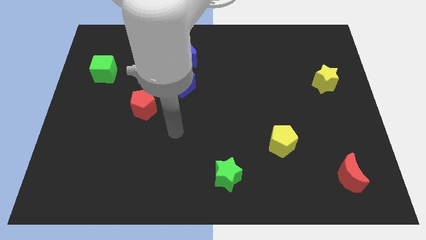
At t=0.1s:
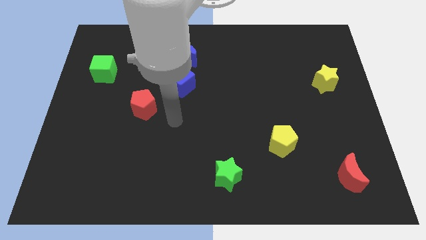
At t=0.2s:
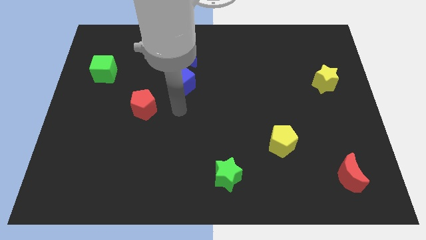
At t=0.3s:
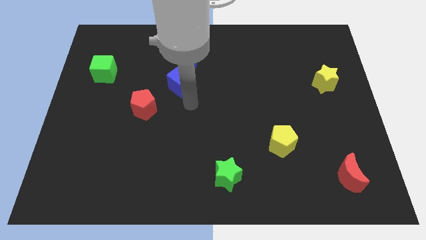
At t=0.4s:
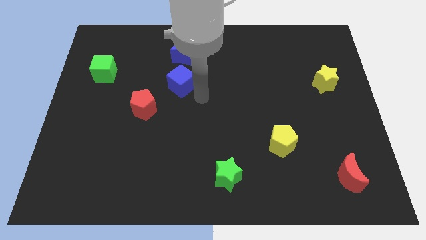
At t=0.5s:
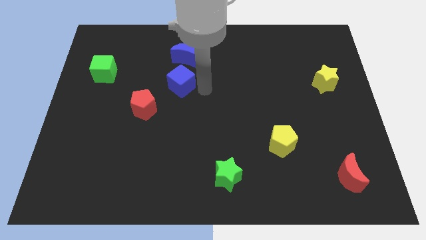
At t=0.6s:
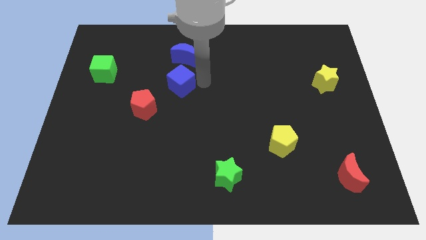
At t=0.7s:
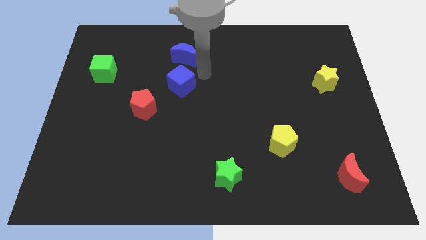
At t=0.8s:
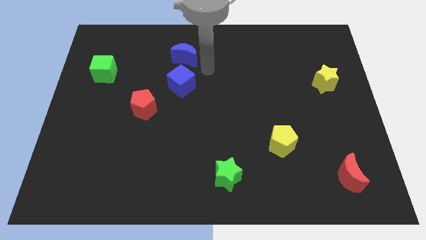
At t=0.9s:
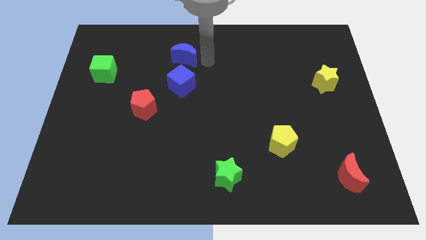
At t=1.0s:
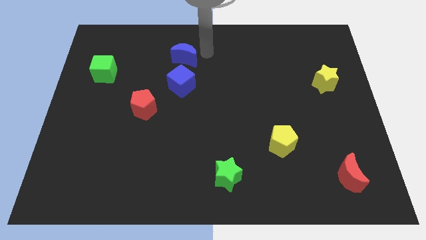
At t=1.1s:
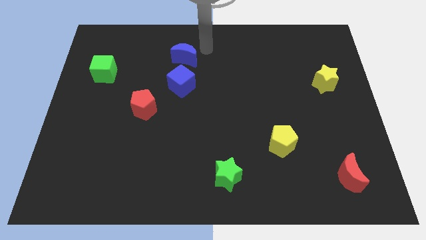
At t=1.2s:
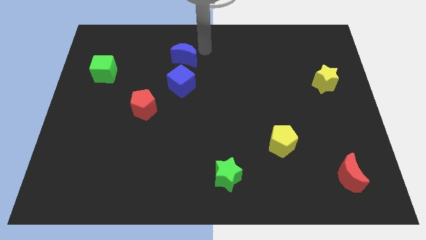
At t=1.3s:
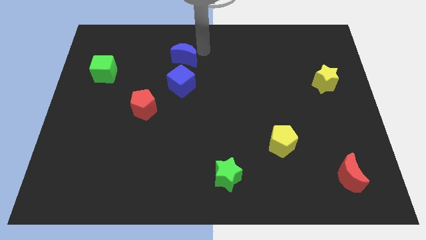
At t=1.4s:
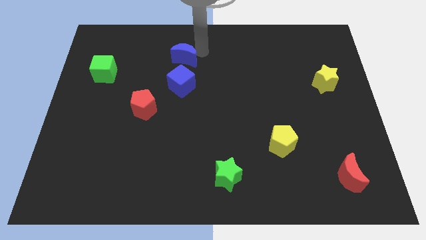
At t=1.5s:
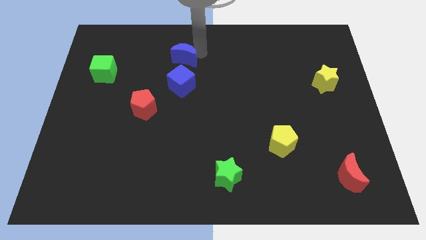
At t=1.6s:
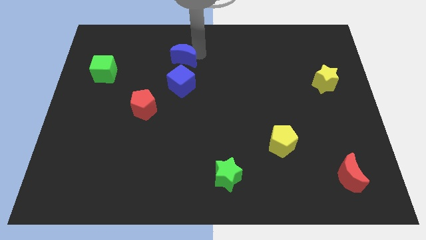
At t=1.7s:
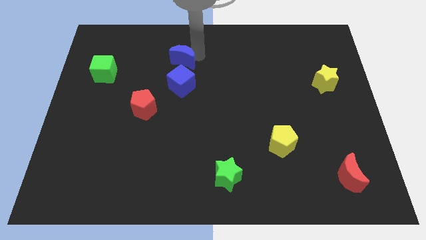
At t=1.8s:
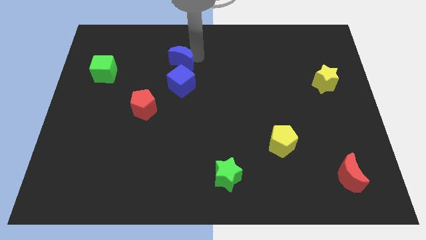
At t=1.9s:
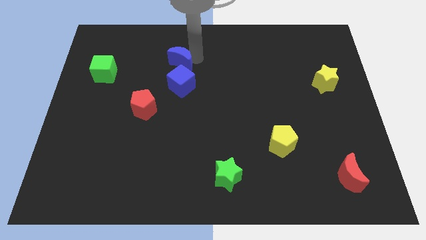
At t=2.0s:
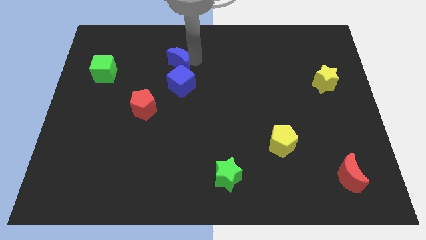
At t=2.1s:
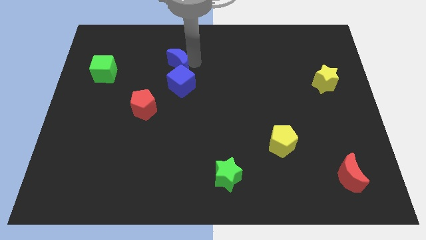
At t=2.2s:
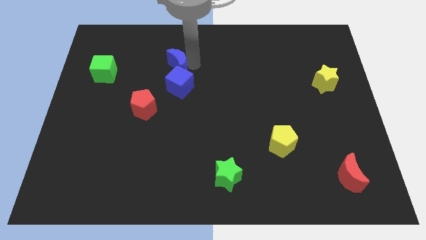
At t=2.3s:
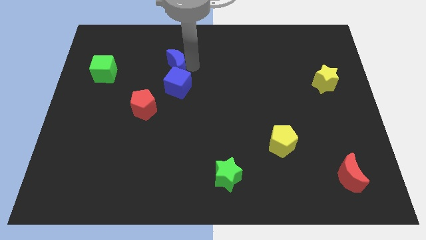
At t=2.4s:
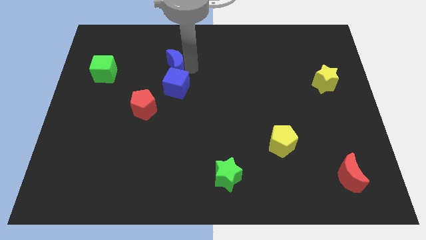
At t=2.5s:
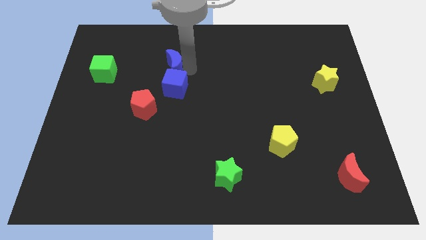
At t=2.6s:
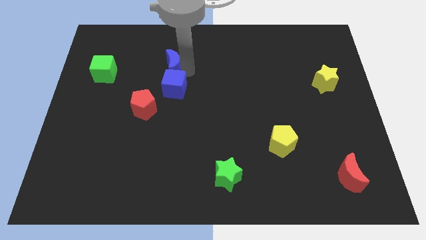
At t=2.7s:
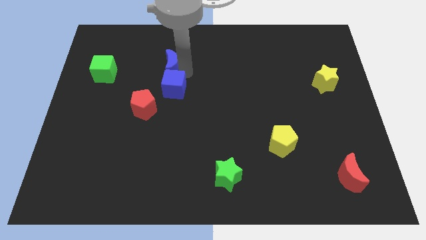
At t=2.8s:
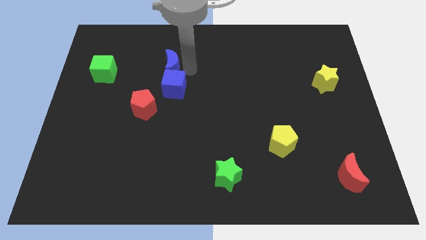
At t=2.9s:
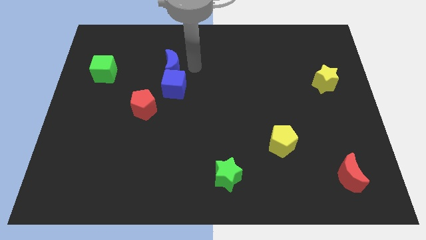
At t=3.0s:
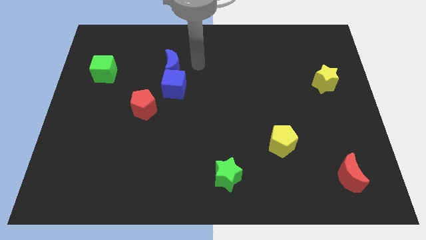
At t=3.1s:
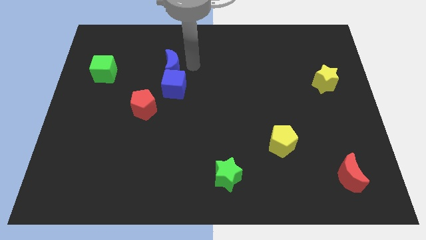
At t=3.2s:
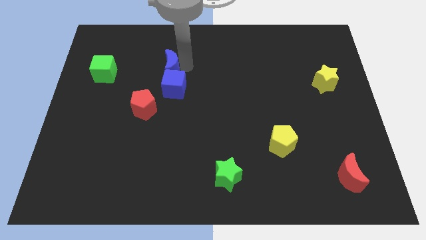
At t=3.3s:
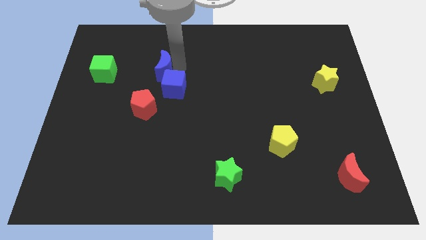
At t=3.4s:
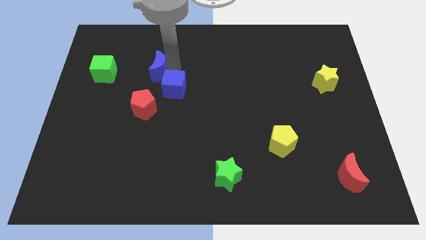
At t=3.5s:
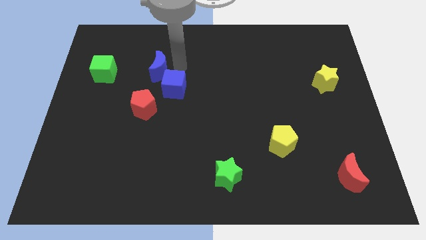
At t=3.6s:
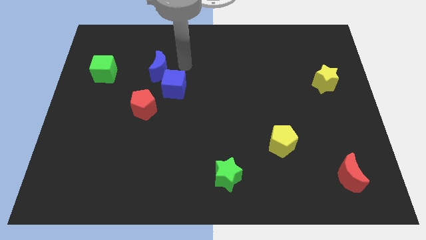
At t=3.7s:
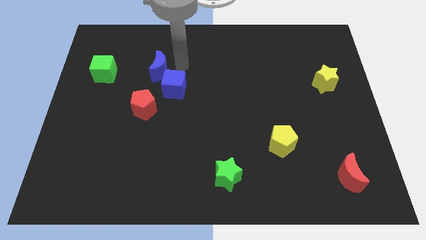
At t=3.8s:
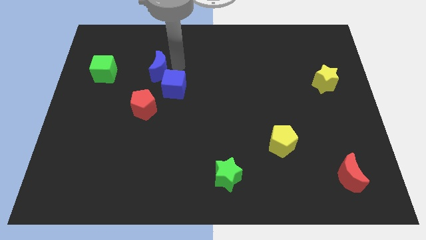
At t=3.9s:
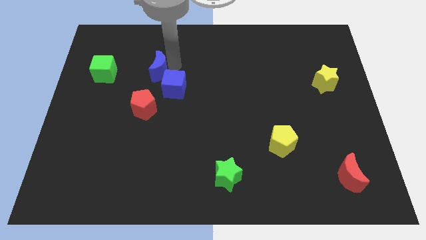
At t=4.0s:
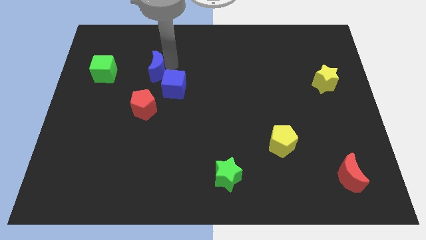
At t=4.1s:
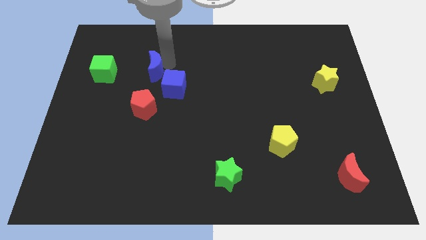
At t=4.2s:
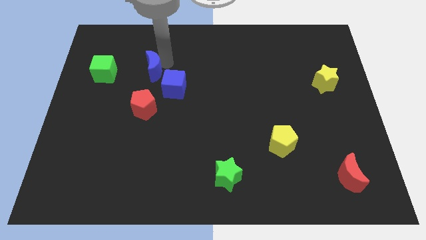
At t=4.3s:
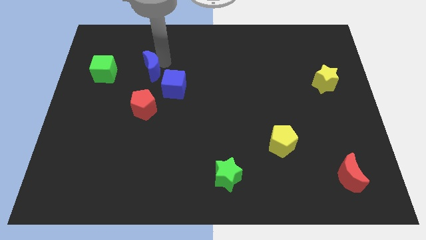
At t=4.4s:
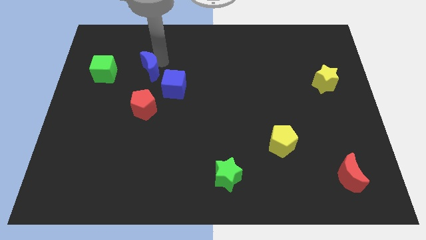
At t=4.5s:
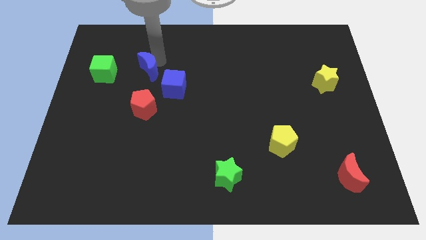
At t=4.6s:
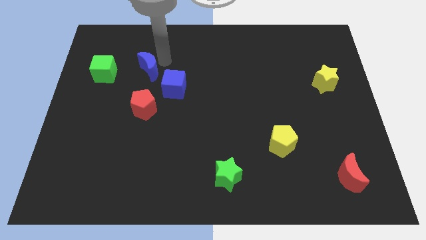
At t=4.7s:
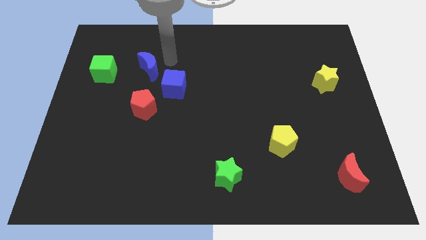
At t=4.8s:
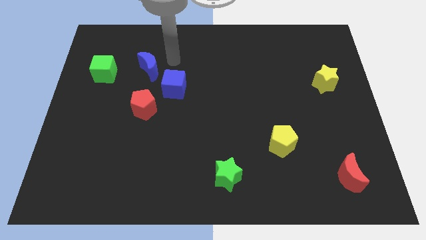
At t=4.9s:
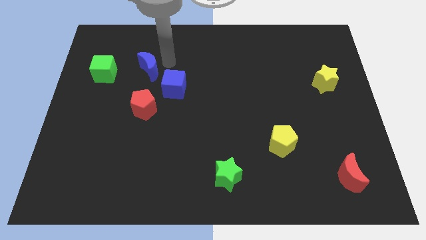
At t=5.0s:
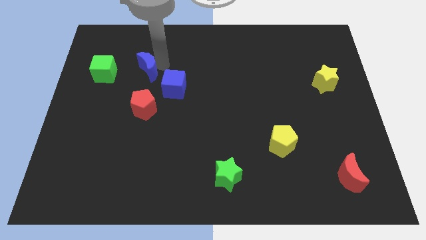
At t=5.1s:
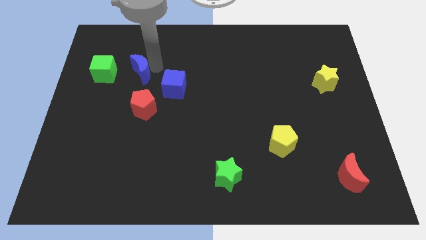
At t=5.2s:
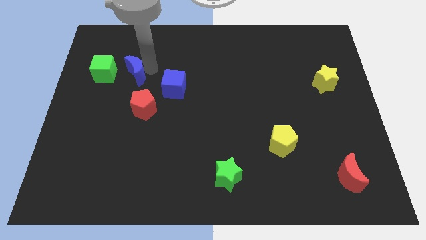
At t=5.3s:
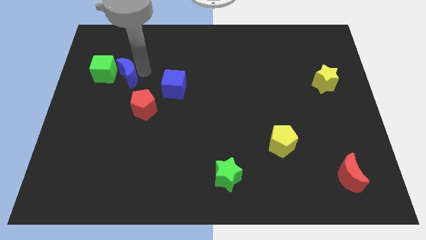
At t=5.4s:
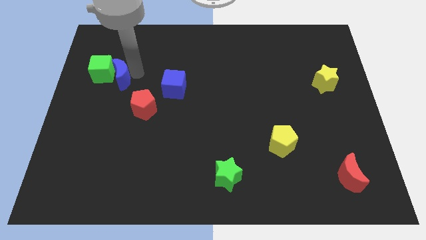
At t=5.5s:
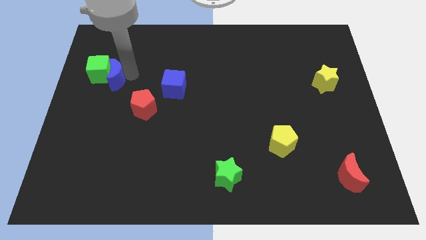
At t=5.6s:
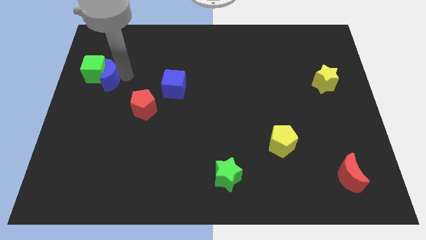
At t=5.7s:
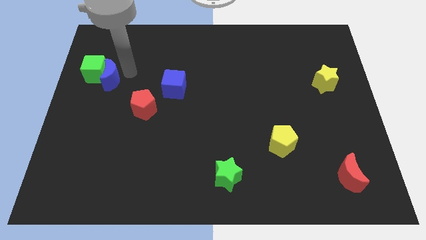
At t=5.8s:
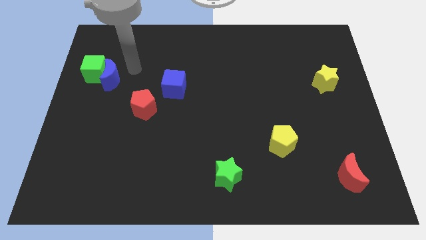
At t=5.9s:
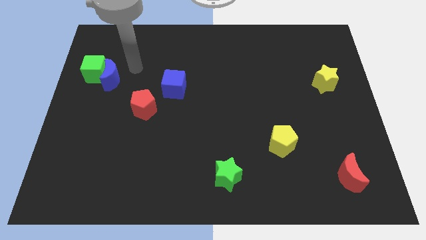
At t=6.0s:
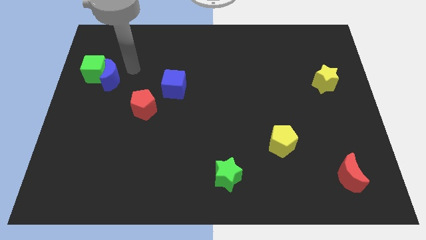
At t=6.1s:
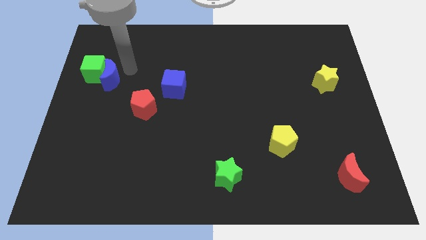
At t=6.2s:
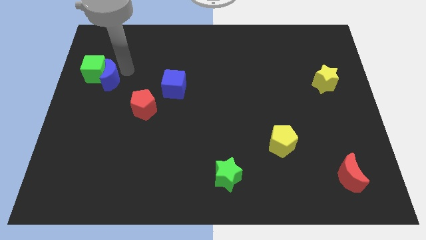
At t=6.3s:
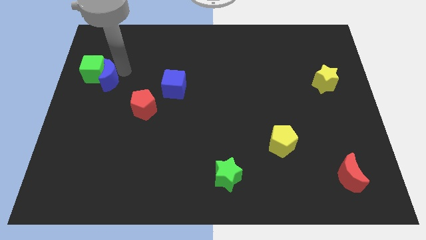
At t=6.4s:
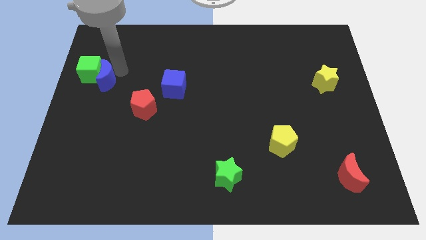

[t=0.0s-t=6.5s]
move the blue moon to the left side of the board

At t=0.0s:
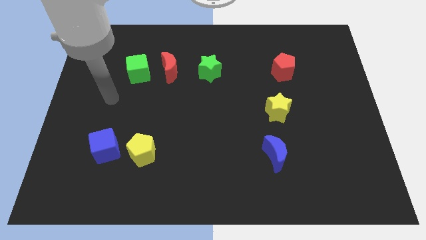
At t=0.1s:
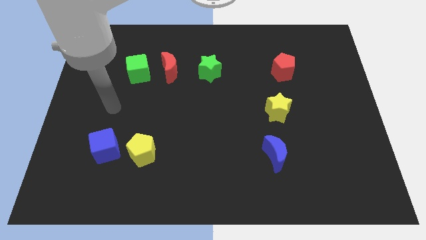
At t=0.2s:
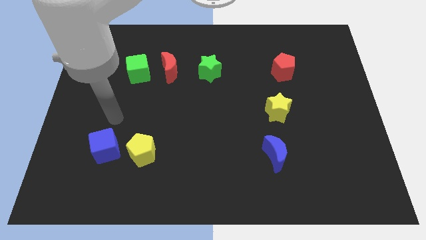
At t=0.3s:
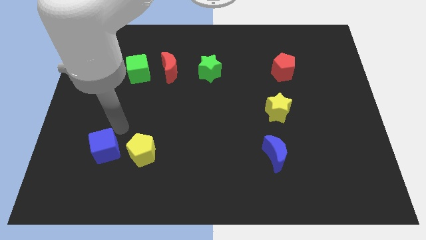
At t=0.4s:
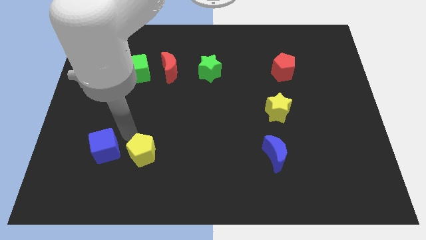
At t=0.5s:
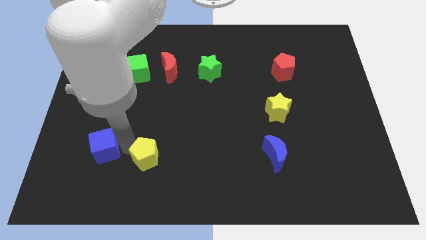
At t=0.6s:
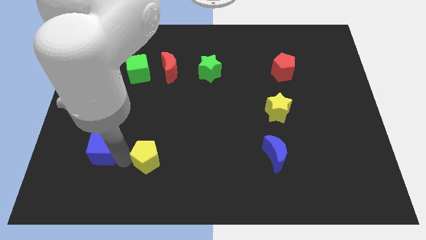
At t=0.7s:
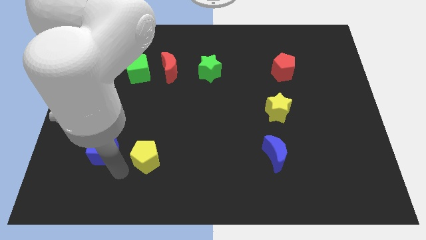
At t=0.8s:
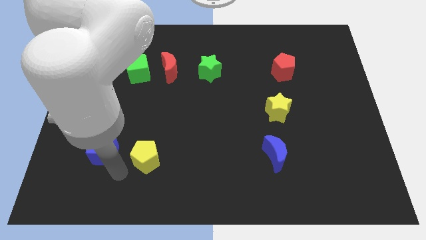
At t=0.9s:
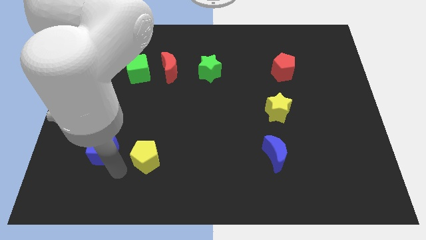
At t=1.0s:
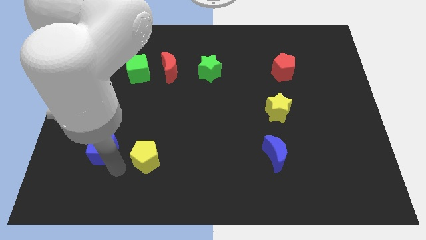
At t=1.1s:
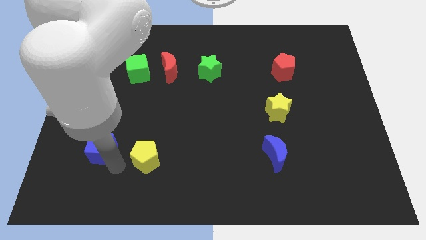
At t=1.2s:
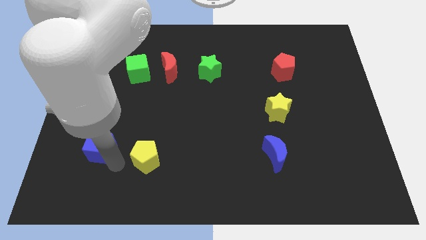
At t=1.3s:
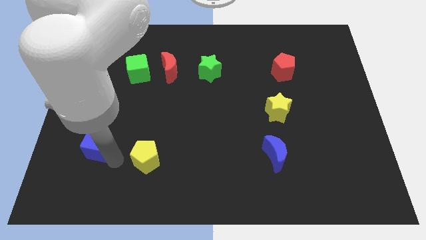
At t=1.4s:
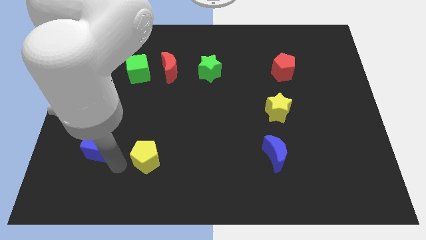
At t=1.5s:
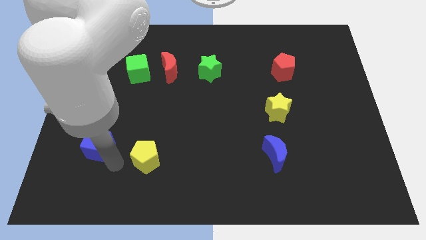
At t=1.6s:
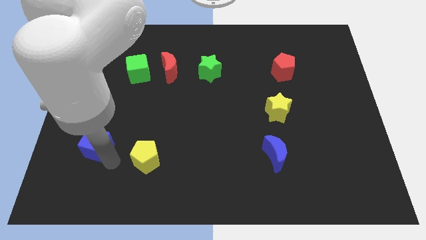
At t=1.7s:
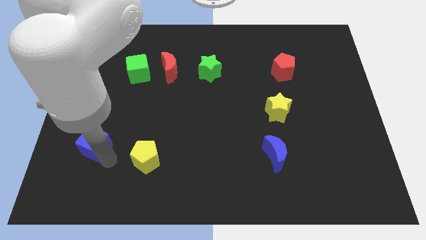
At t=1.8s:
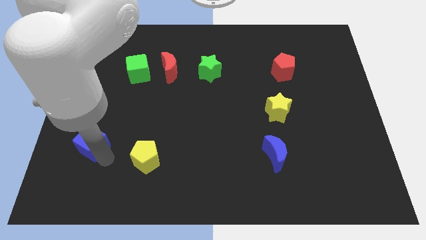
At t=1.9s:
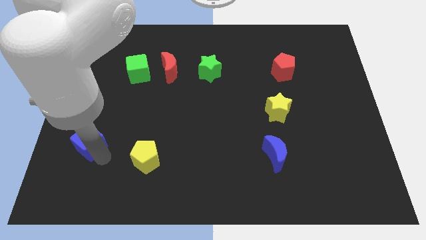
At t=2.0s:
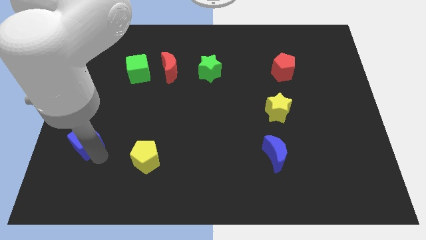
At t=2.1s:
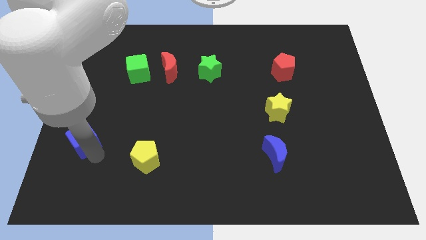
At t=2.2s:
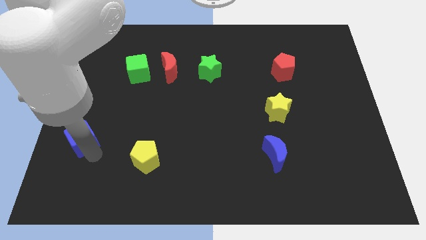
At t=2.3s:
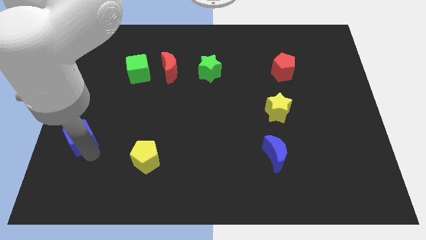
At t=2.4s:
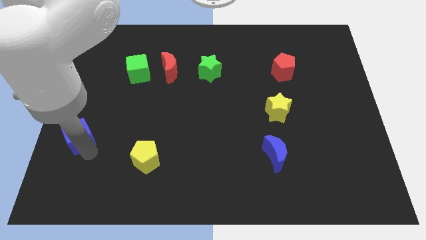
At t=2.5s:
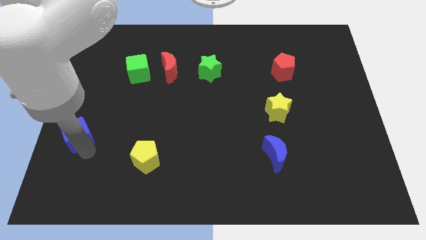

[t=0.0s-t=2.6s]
put the blue cube to the center left
